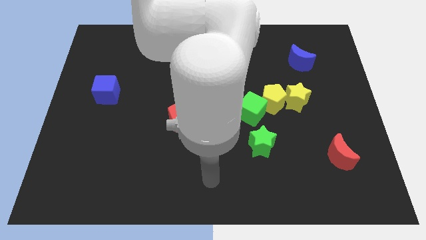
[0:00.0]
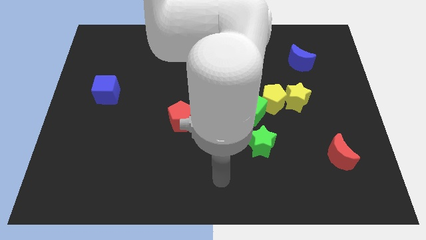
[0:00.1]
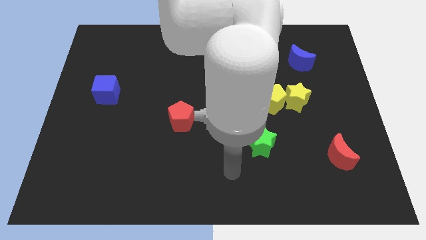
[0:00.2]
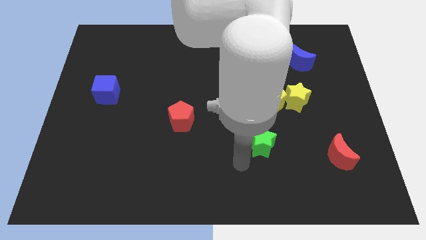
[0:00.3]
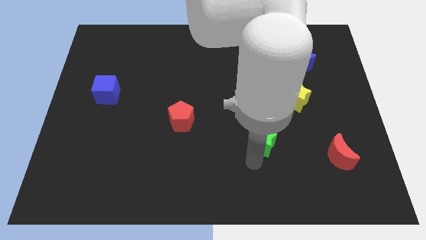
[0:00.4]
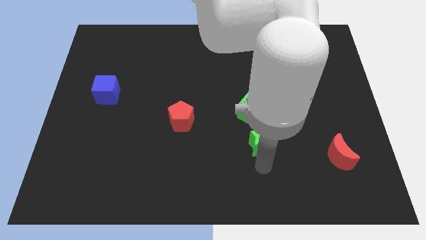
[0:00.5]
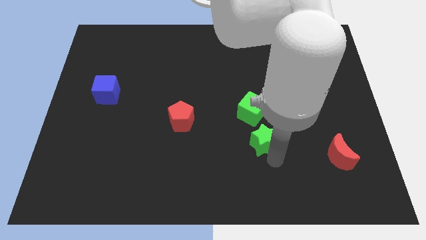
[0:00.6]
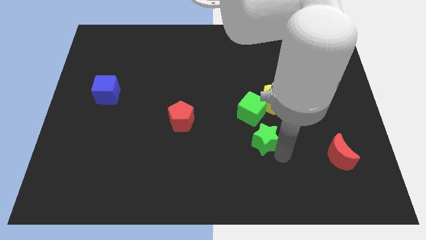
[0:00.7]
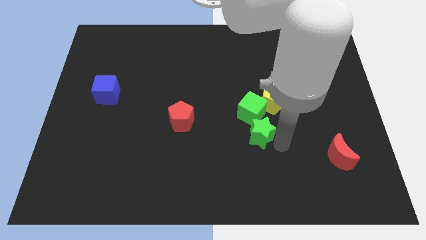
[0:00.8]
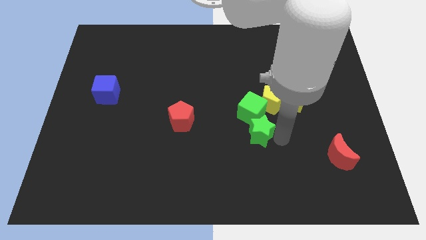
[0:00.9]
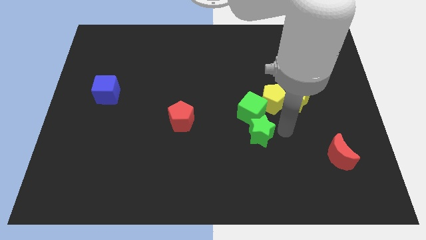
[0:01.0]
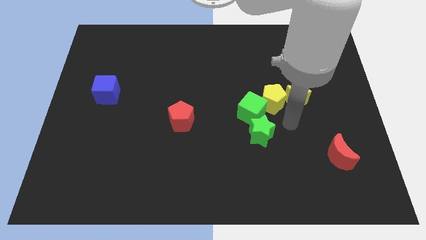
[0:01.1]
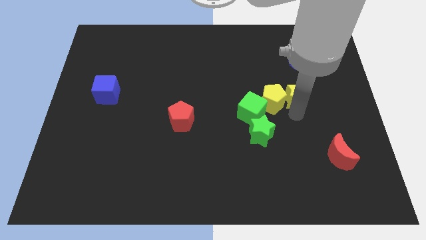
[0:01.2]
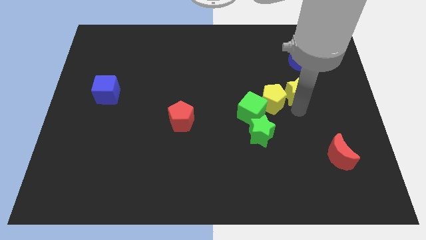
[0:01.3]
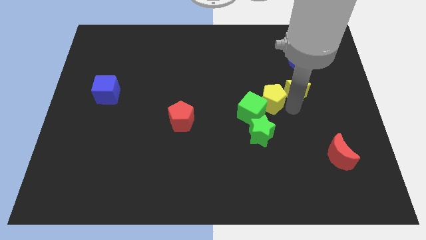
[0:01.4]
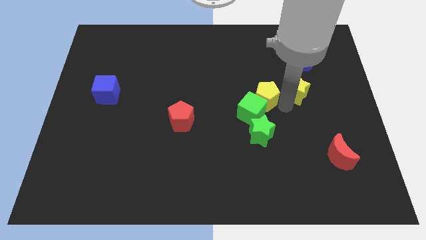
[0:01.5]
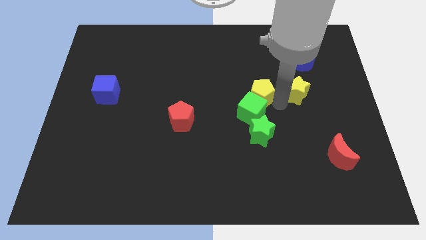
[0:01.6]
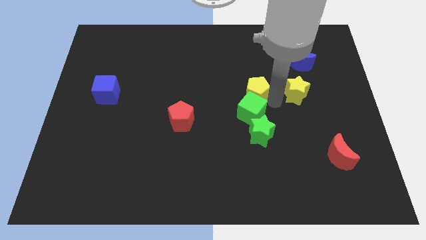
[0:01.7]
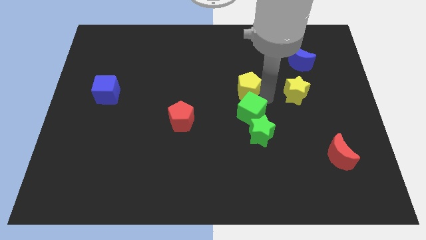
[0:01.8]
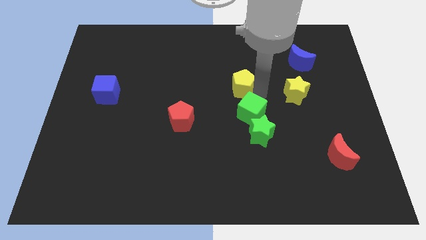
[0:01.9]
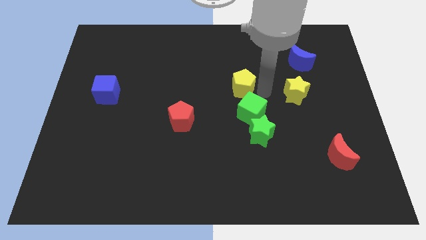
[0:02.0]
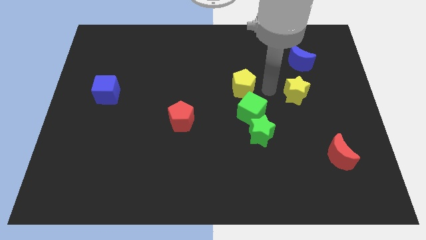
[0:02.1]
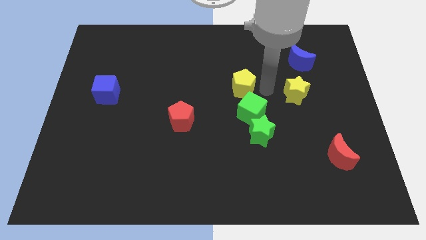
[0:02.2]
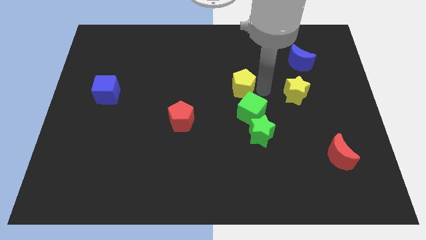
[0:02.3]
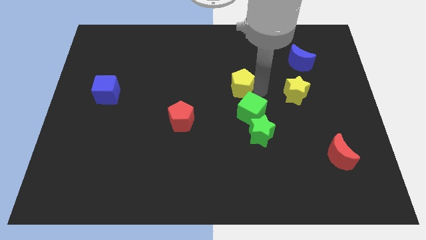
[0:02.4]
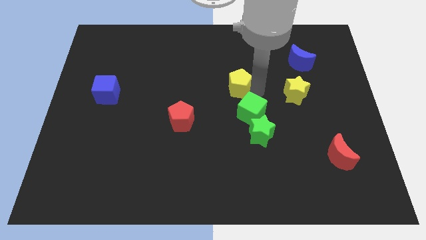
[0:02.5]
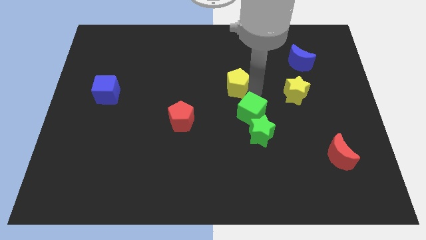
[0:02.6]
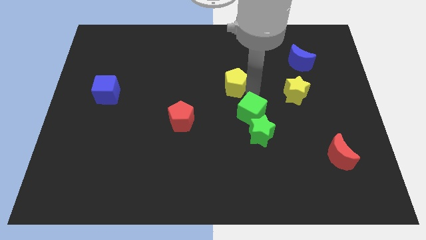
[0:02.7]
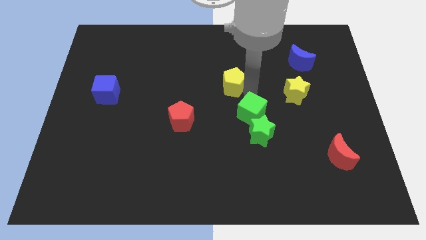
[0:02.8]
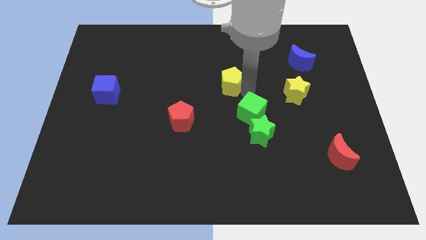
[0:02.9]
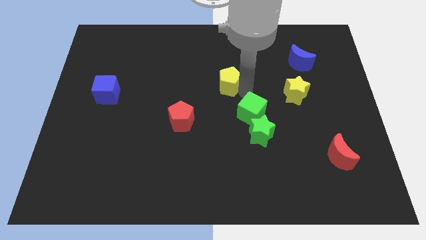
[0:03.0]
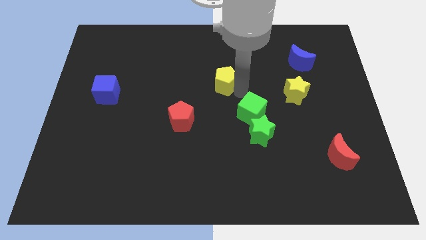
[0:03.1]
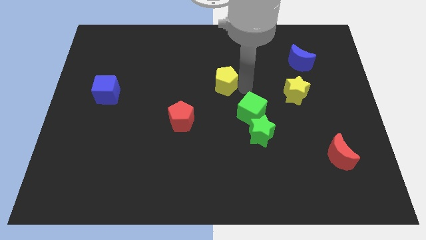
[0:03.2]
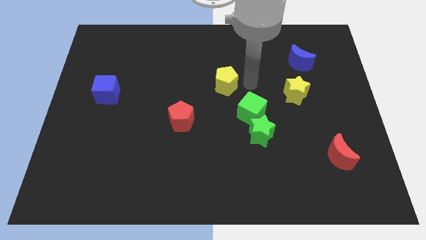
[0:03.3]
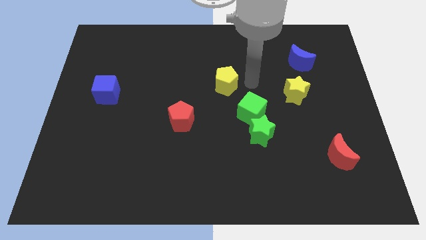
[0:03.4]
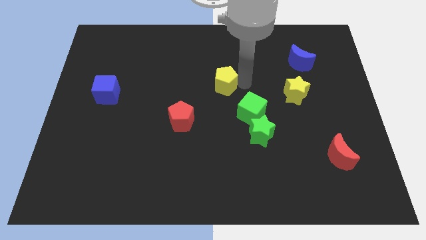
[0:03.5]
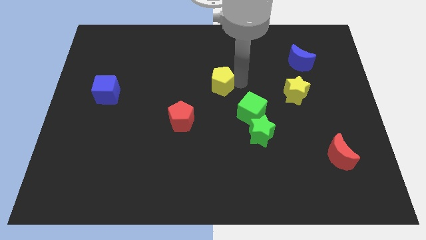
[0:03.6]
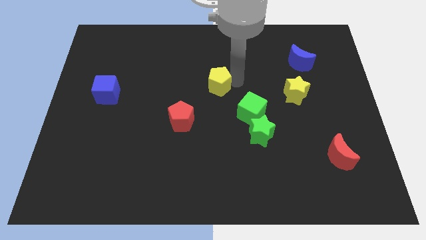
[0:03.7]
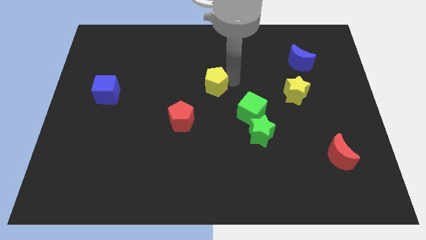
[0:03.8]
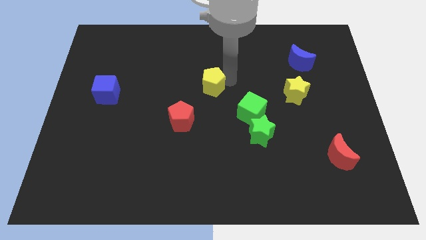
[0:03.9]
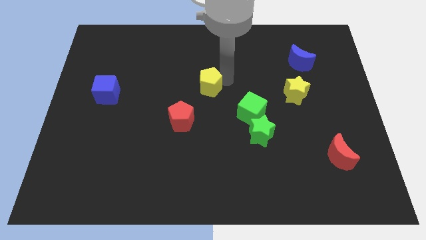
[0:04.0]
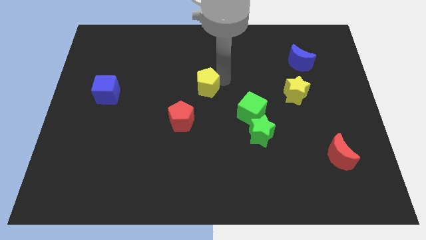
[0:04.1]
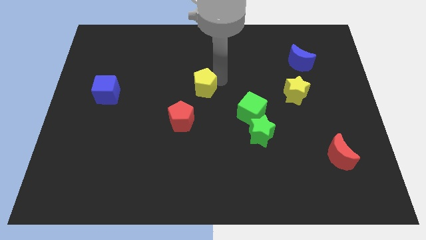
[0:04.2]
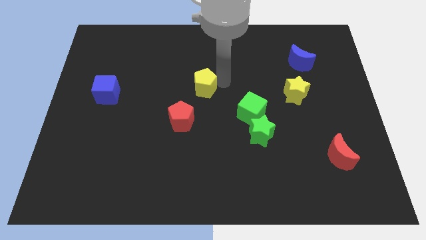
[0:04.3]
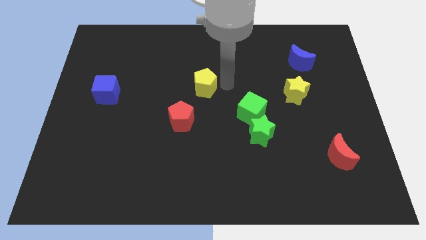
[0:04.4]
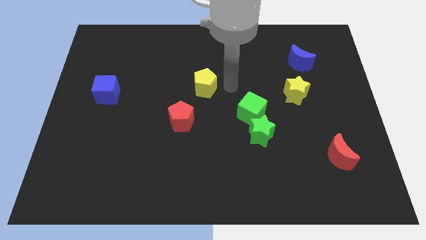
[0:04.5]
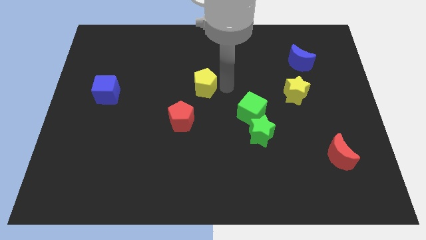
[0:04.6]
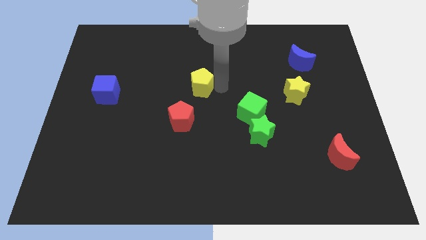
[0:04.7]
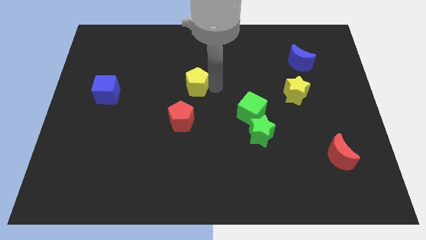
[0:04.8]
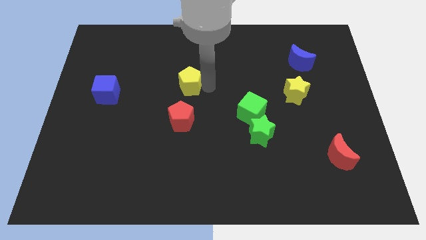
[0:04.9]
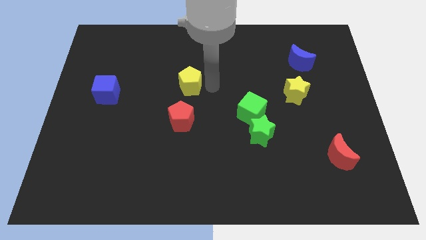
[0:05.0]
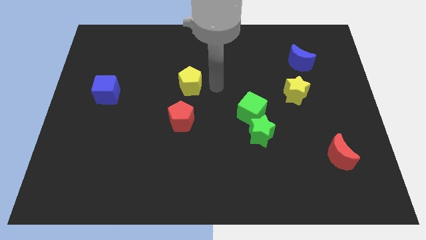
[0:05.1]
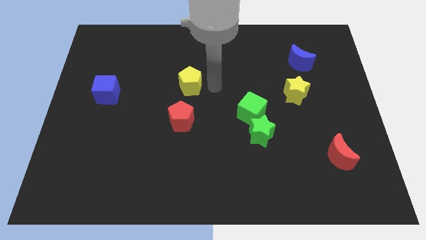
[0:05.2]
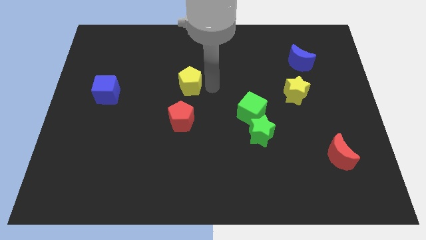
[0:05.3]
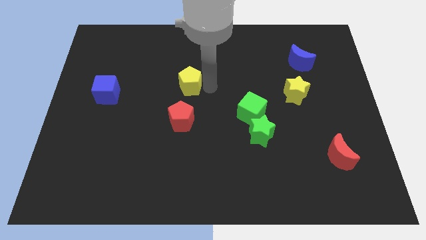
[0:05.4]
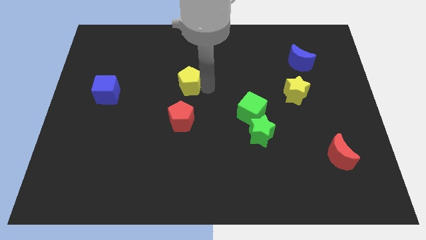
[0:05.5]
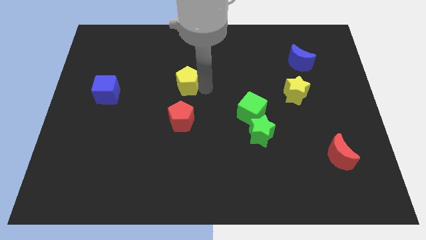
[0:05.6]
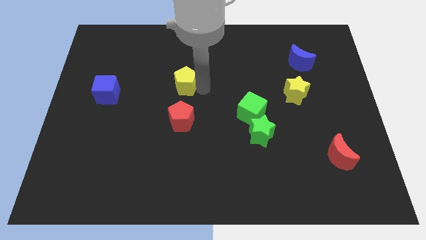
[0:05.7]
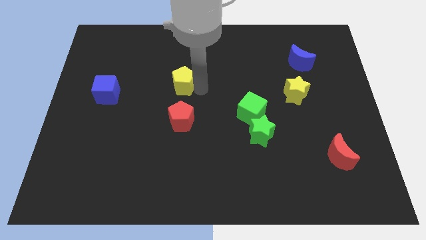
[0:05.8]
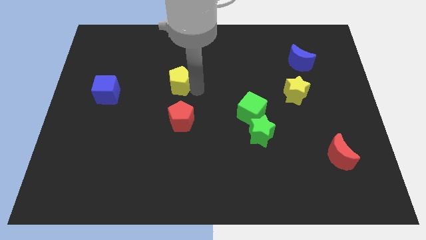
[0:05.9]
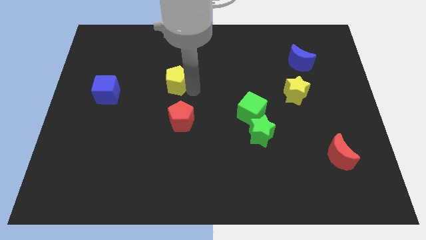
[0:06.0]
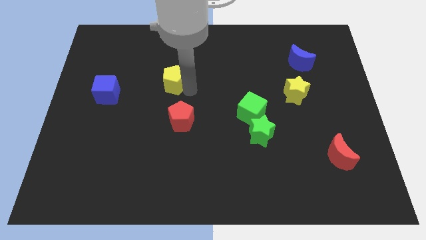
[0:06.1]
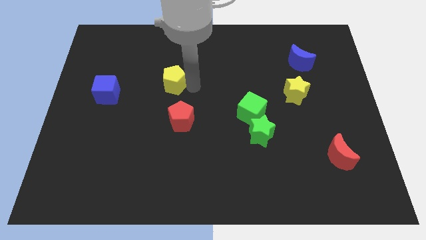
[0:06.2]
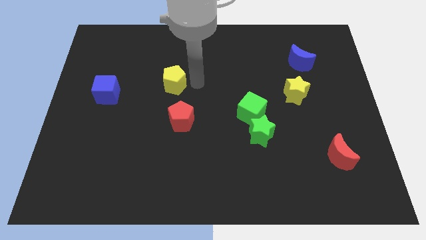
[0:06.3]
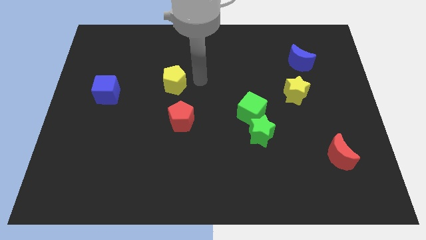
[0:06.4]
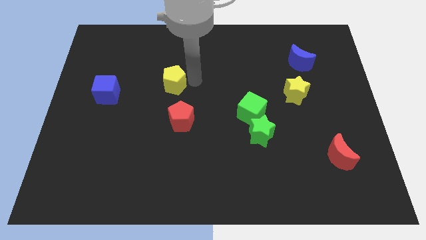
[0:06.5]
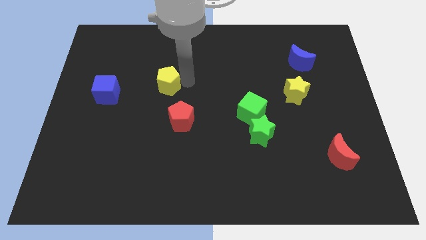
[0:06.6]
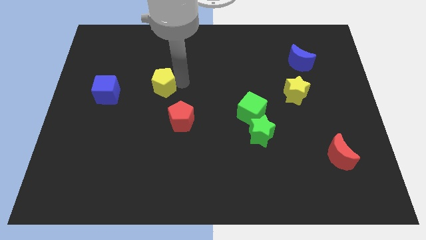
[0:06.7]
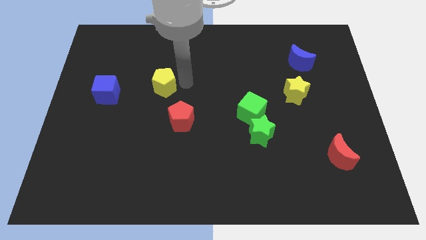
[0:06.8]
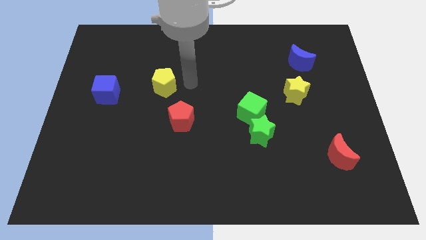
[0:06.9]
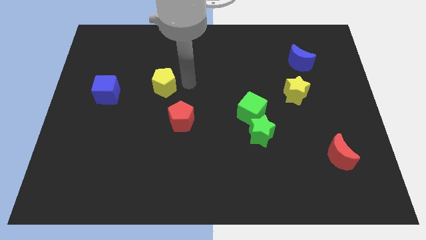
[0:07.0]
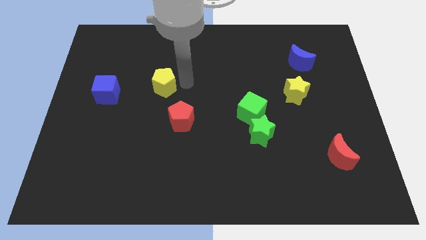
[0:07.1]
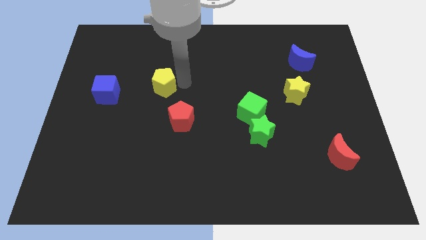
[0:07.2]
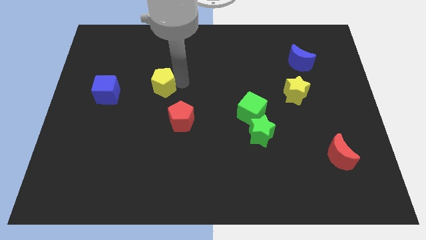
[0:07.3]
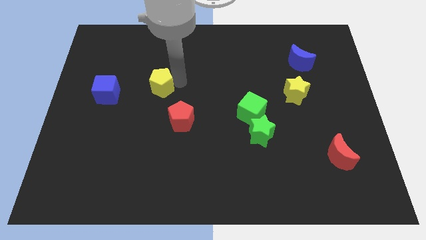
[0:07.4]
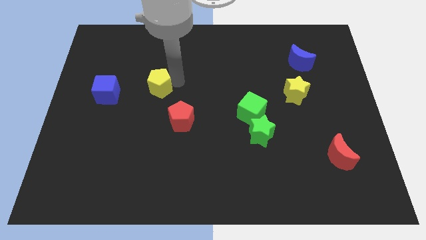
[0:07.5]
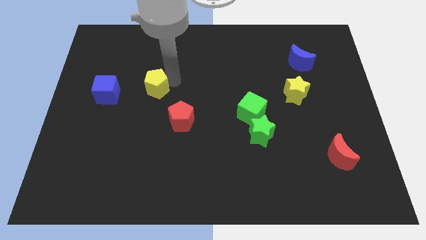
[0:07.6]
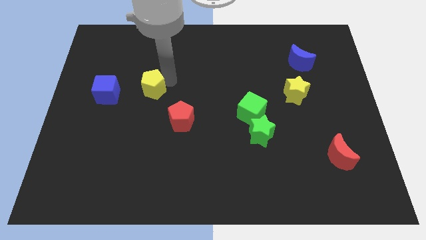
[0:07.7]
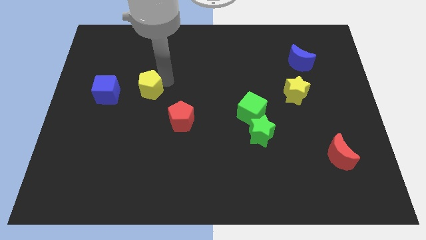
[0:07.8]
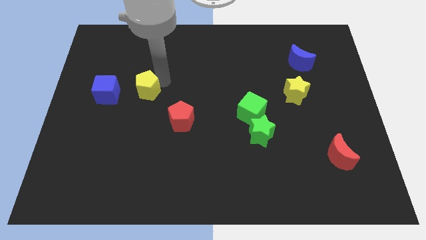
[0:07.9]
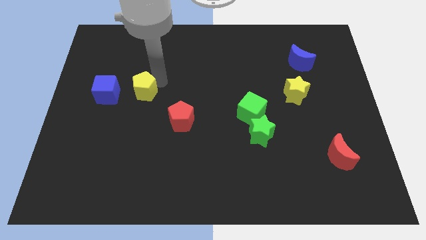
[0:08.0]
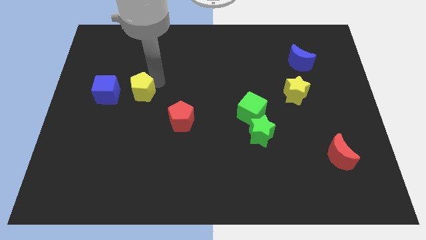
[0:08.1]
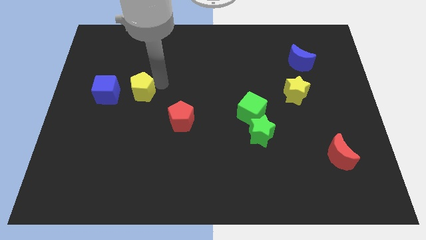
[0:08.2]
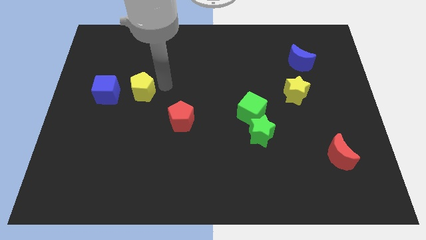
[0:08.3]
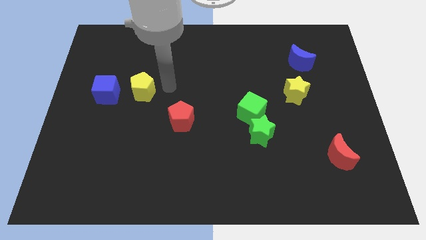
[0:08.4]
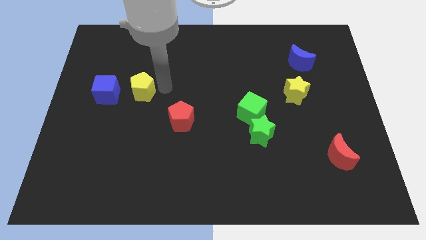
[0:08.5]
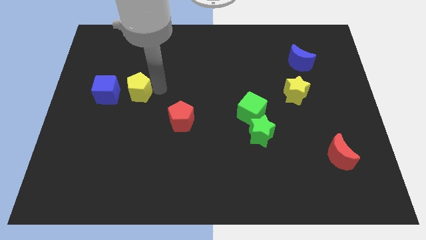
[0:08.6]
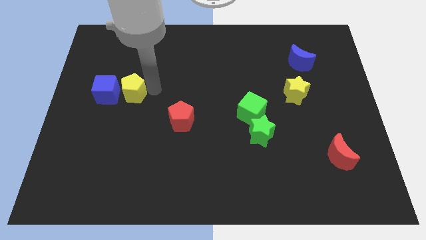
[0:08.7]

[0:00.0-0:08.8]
slide the yellow pentagon towards the blue cube
